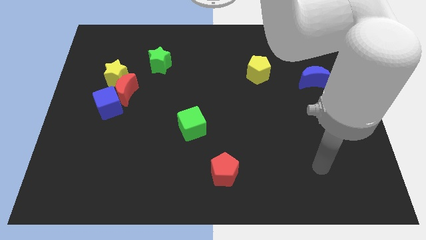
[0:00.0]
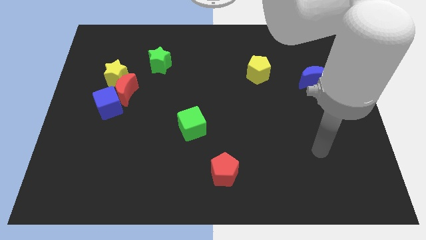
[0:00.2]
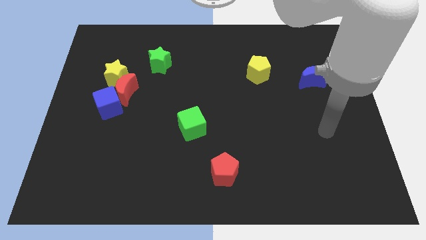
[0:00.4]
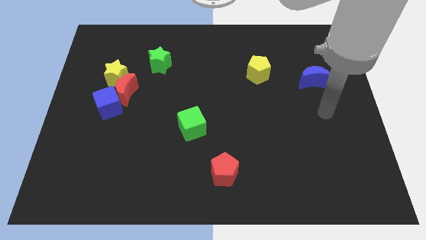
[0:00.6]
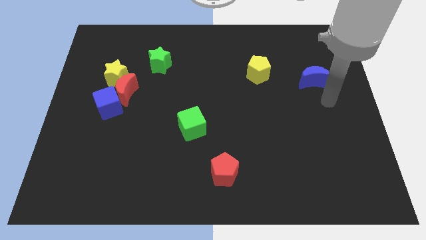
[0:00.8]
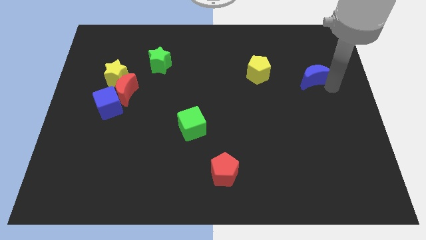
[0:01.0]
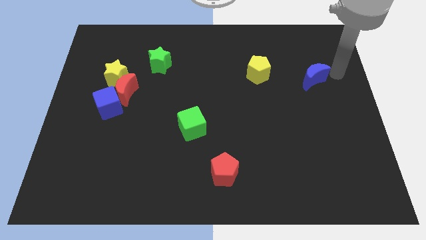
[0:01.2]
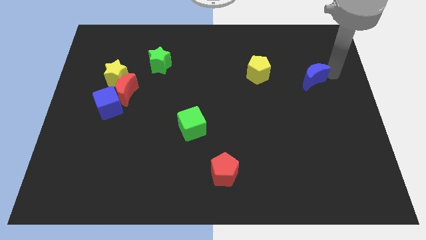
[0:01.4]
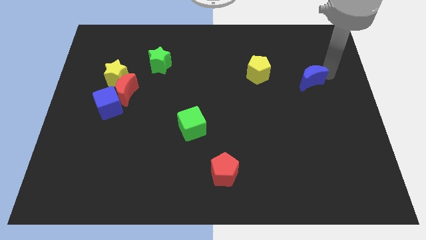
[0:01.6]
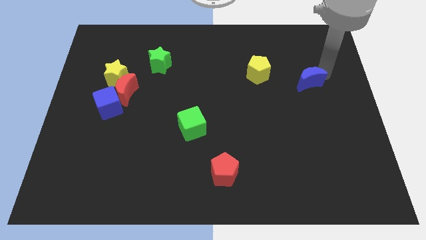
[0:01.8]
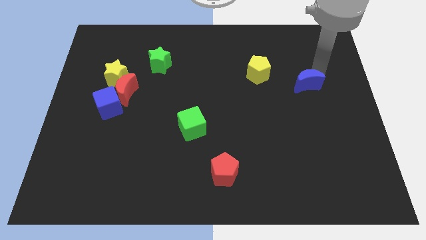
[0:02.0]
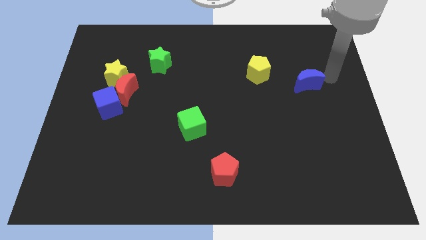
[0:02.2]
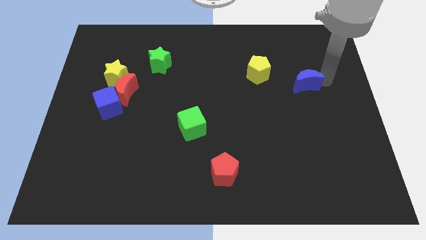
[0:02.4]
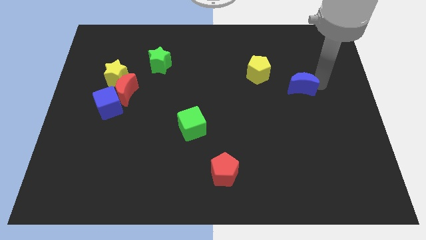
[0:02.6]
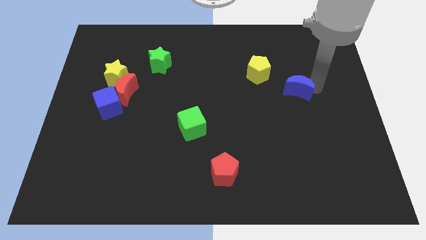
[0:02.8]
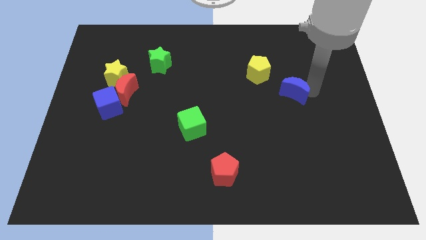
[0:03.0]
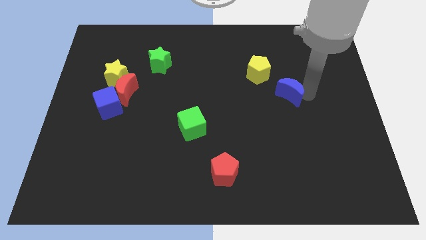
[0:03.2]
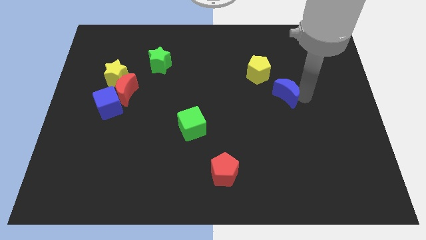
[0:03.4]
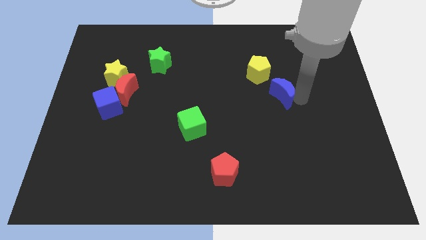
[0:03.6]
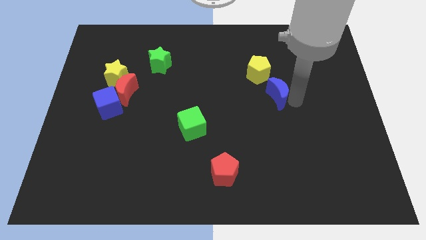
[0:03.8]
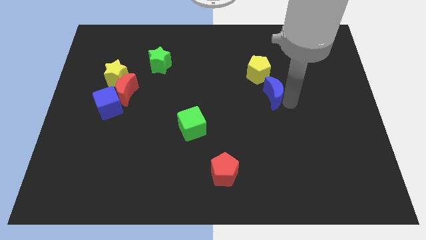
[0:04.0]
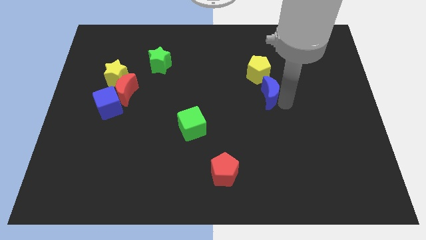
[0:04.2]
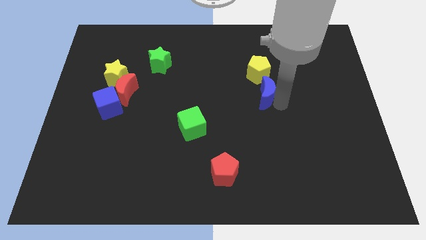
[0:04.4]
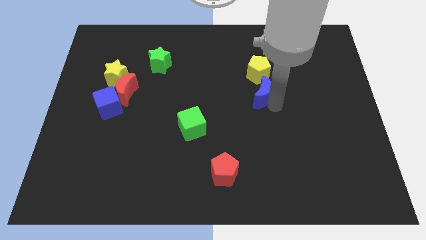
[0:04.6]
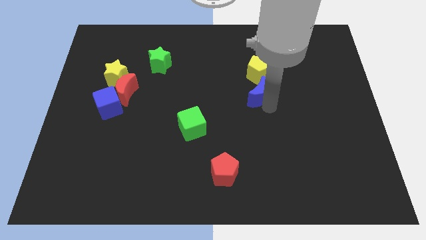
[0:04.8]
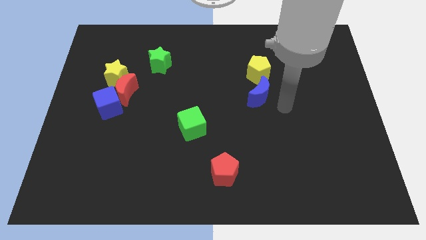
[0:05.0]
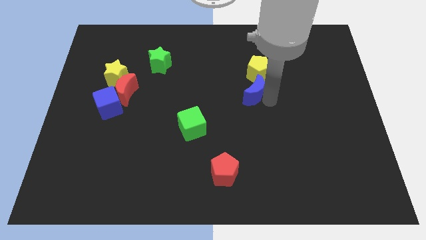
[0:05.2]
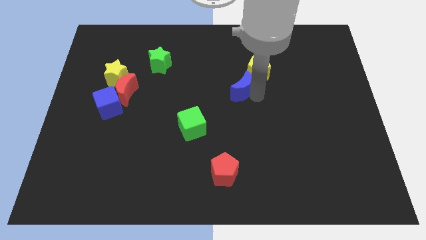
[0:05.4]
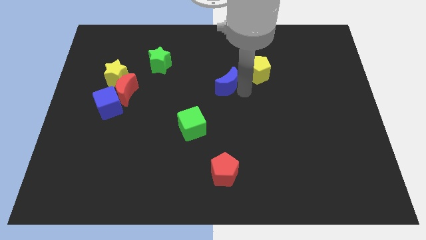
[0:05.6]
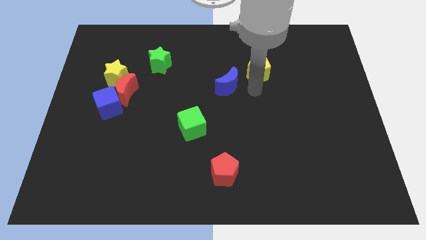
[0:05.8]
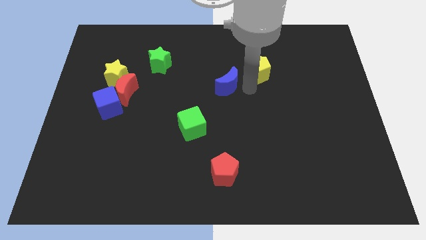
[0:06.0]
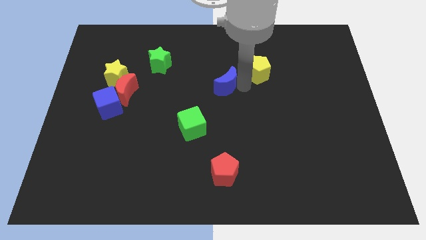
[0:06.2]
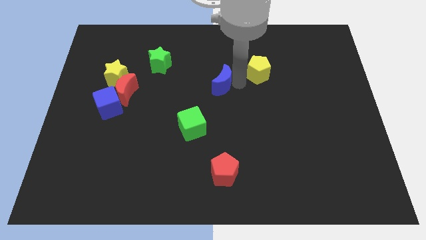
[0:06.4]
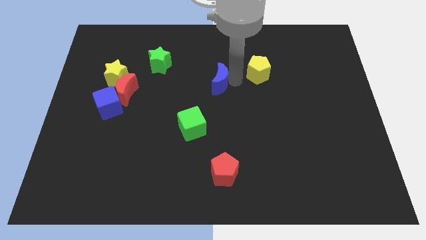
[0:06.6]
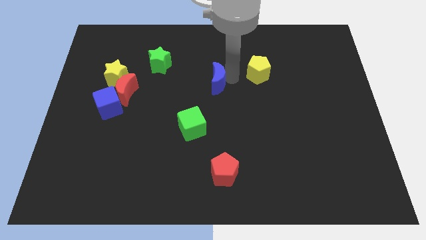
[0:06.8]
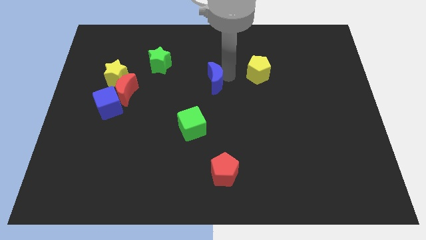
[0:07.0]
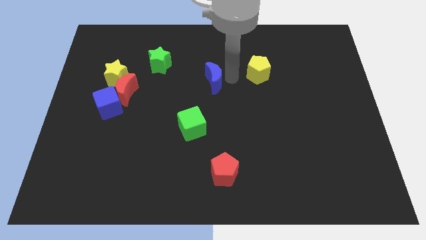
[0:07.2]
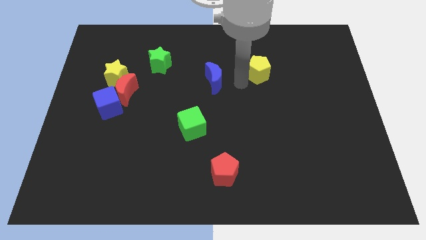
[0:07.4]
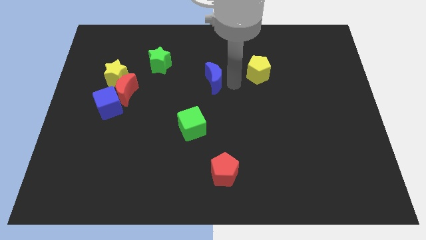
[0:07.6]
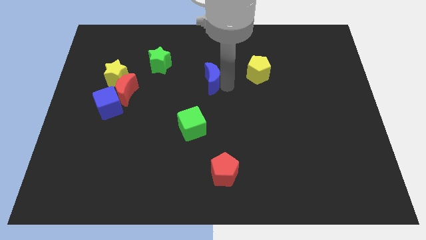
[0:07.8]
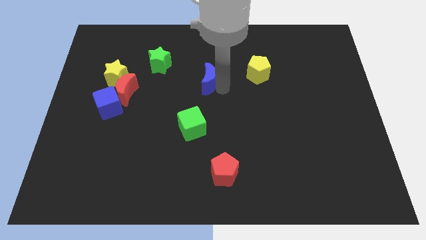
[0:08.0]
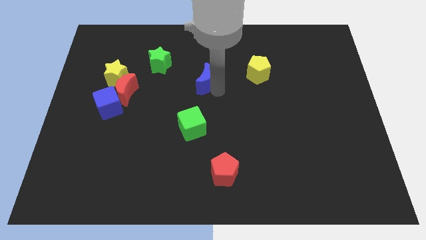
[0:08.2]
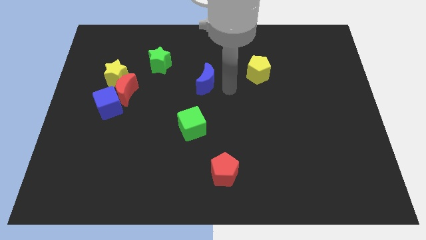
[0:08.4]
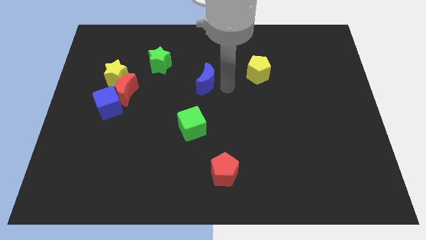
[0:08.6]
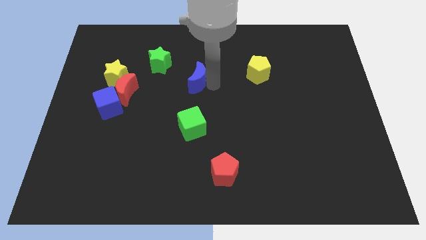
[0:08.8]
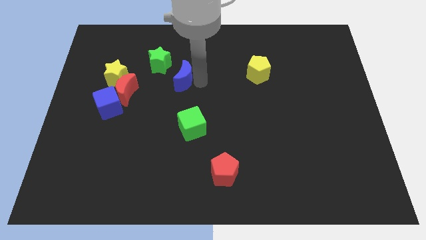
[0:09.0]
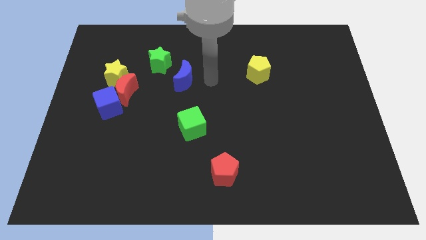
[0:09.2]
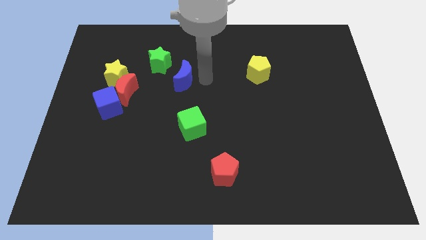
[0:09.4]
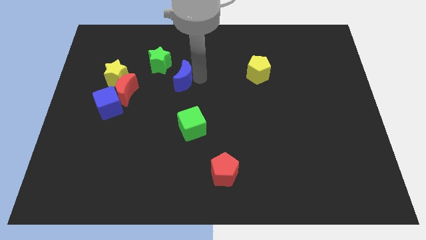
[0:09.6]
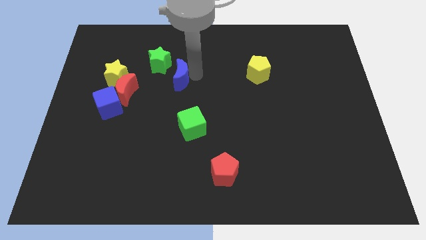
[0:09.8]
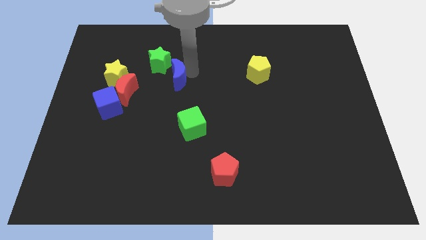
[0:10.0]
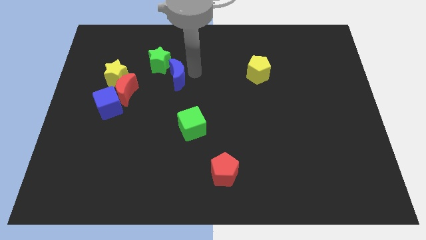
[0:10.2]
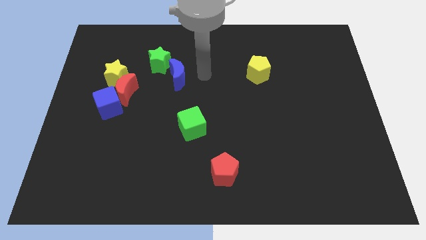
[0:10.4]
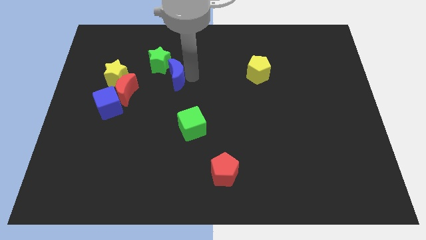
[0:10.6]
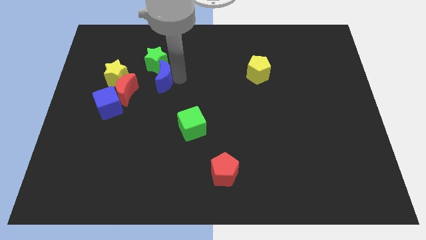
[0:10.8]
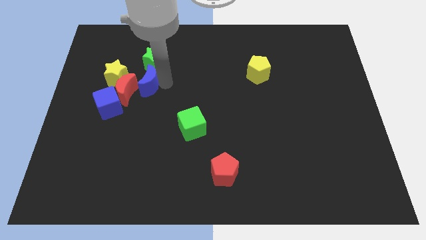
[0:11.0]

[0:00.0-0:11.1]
put the blue moon diagonally down and to the left of the green star

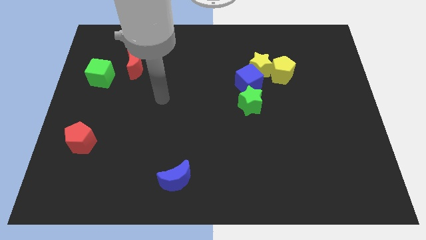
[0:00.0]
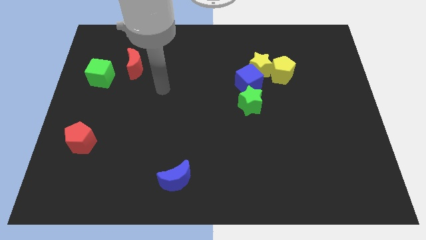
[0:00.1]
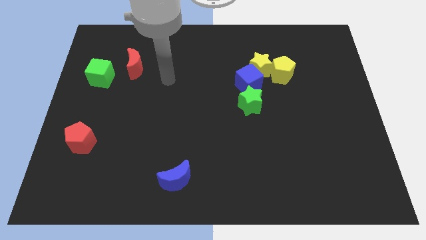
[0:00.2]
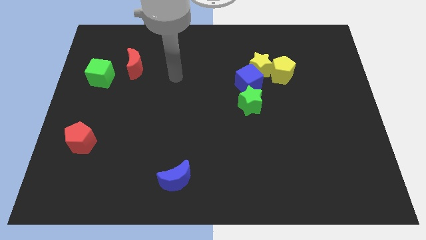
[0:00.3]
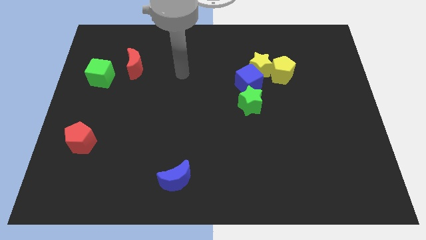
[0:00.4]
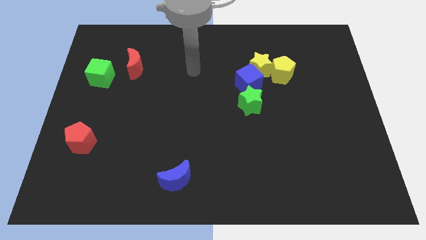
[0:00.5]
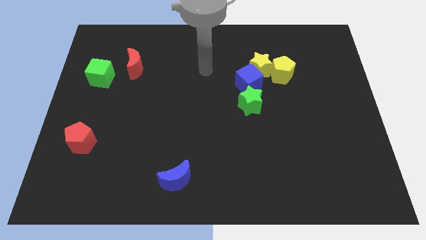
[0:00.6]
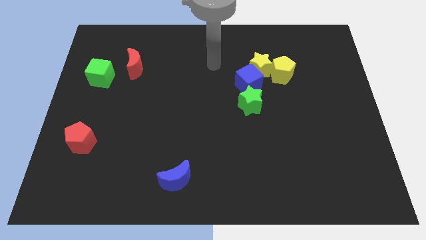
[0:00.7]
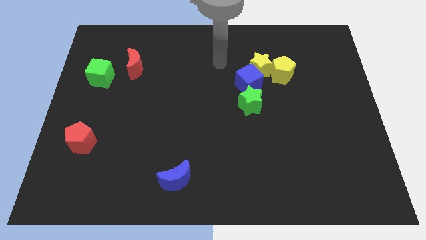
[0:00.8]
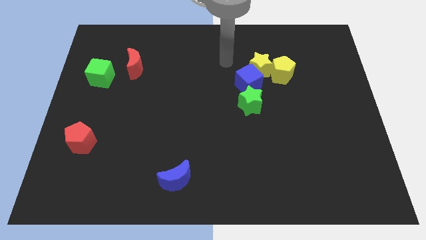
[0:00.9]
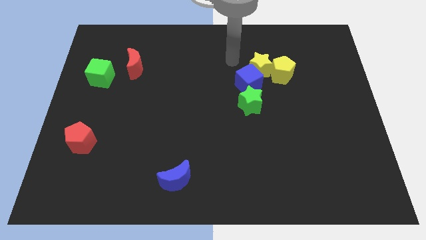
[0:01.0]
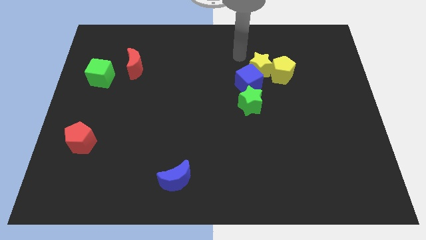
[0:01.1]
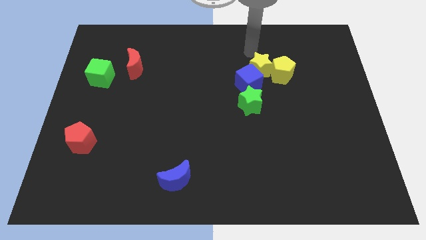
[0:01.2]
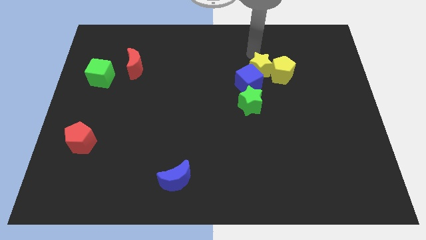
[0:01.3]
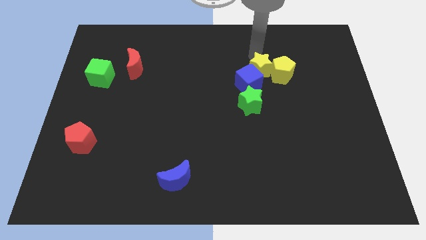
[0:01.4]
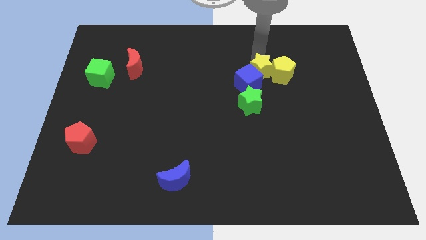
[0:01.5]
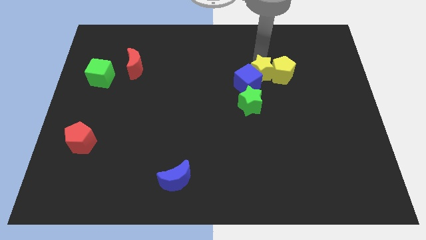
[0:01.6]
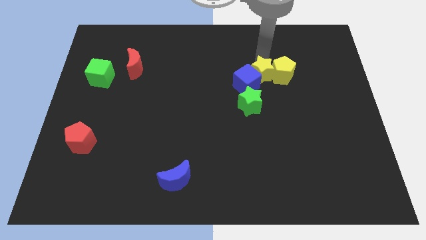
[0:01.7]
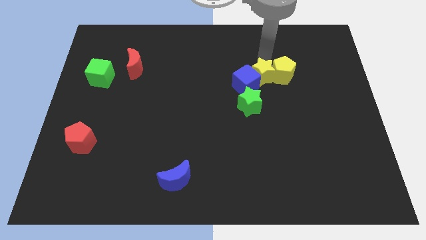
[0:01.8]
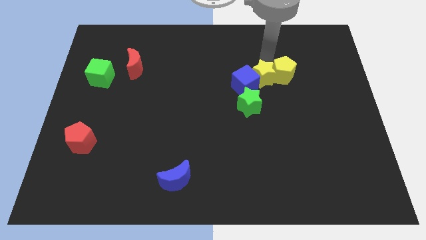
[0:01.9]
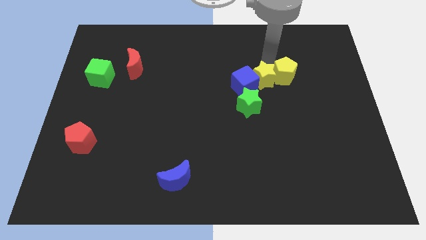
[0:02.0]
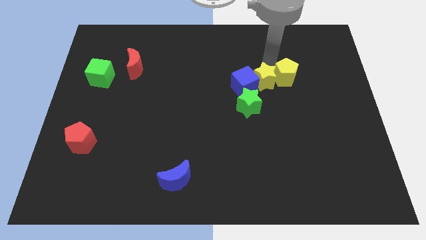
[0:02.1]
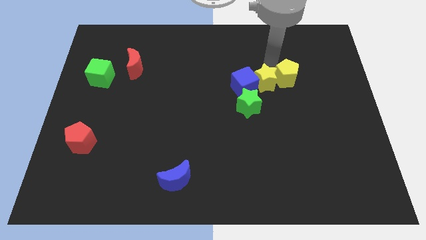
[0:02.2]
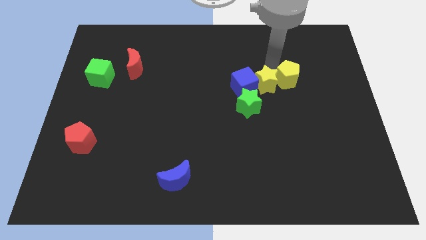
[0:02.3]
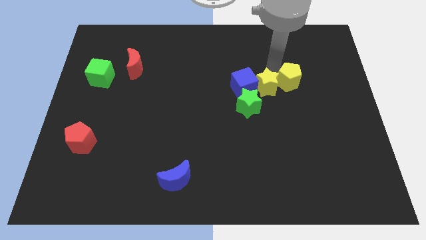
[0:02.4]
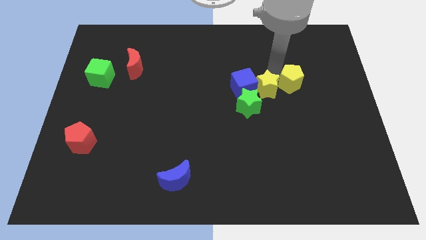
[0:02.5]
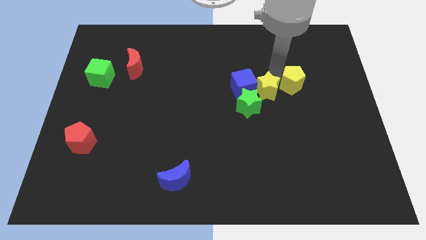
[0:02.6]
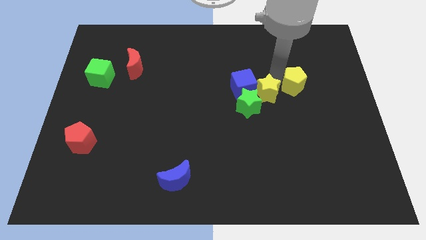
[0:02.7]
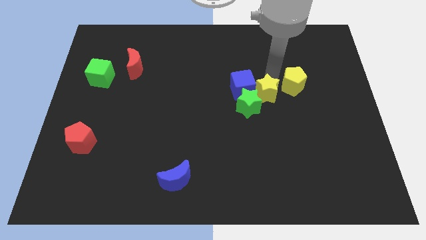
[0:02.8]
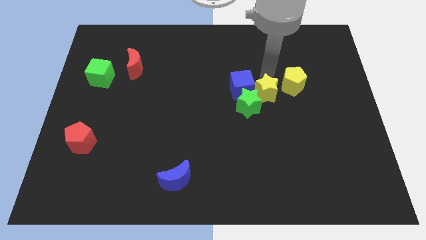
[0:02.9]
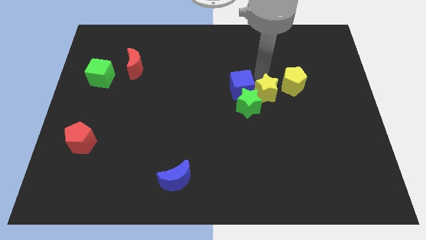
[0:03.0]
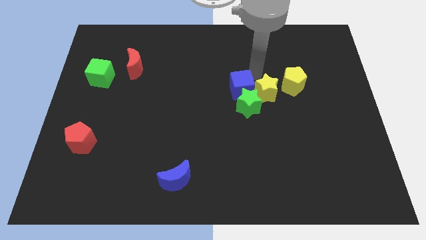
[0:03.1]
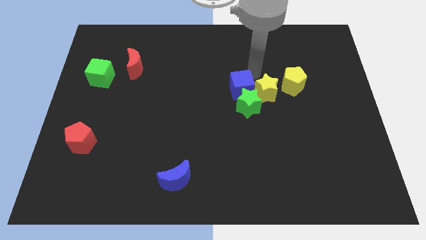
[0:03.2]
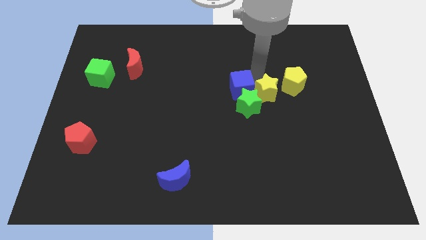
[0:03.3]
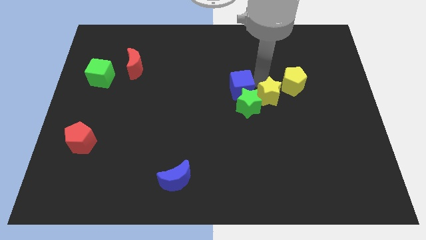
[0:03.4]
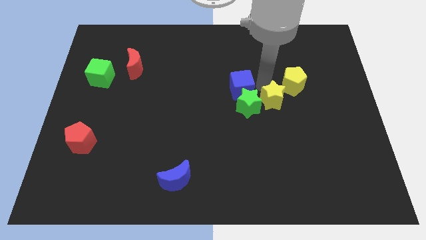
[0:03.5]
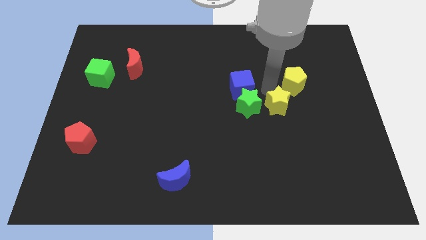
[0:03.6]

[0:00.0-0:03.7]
put the yellow star to the bottom right side of the green star
